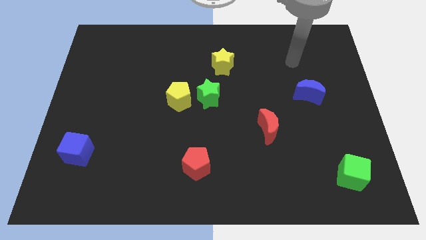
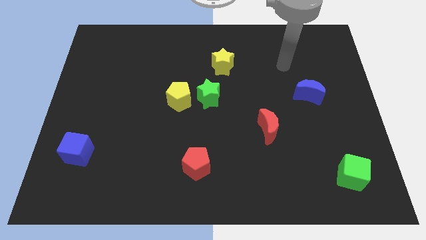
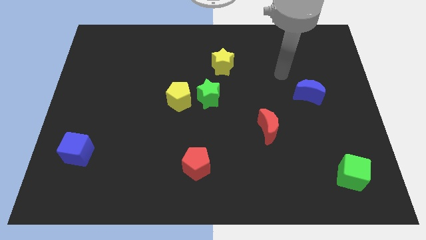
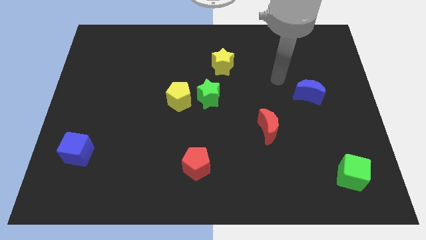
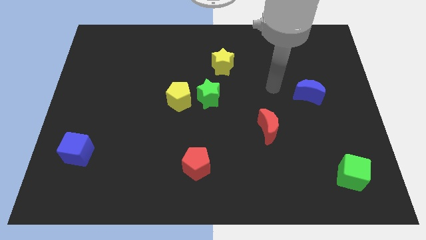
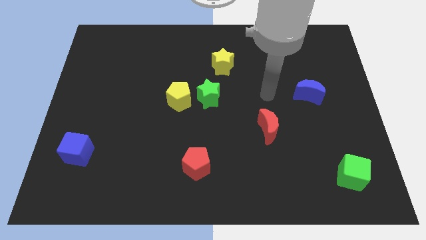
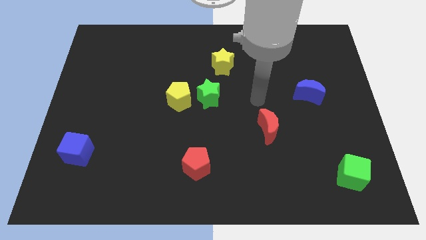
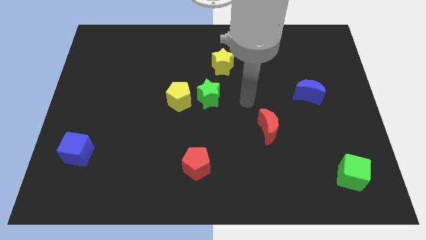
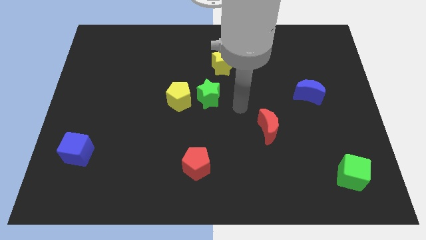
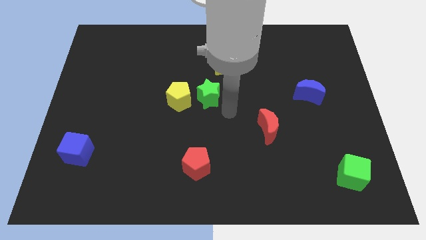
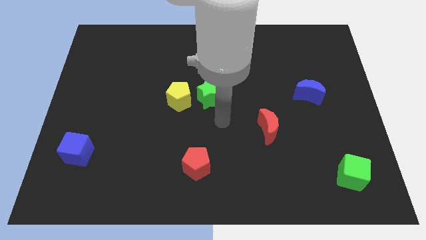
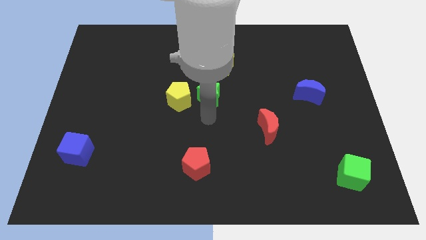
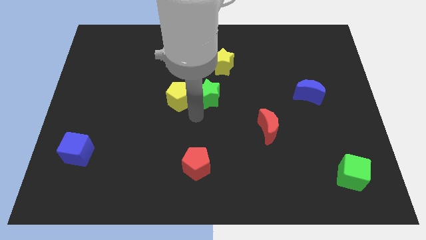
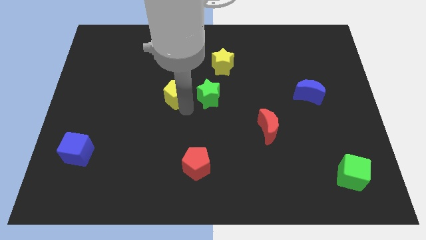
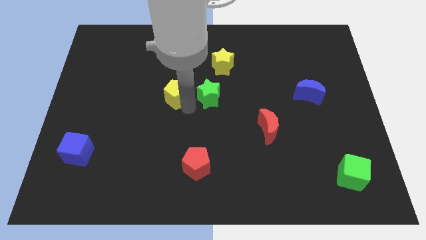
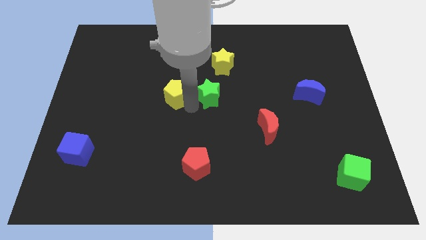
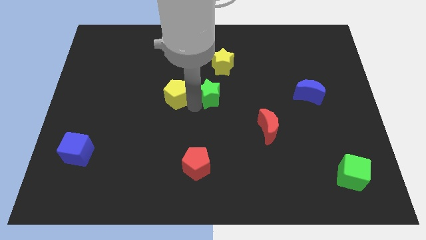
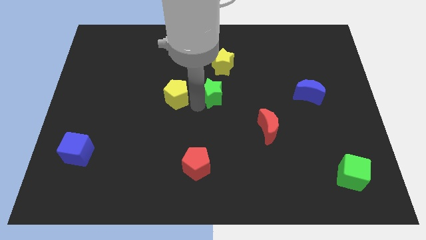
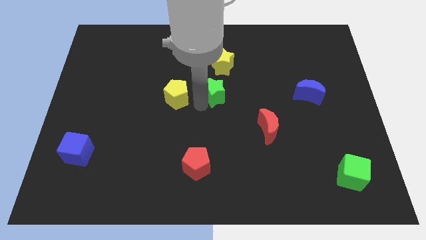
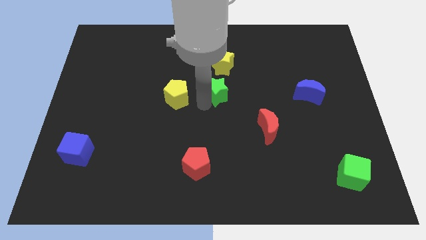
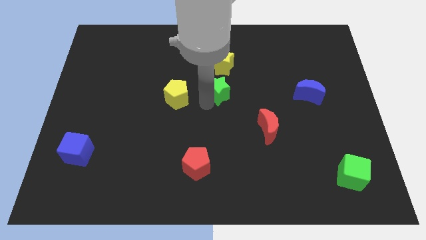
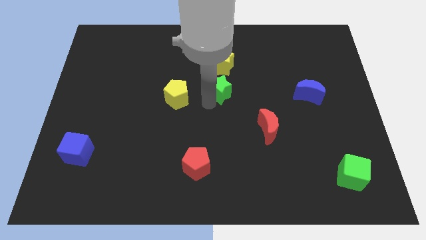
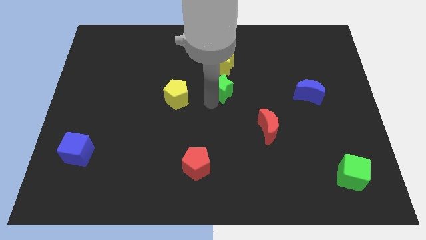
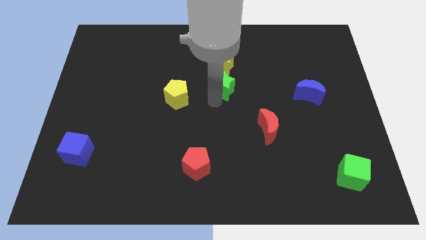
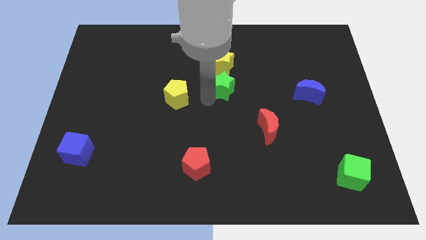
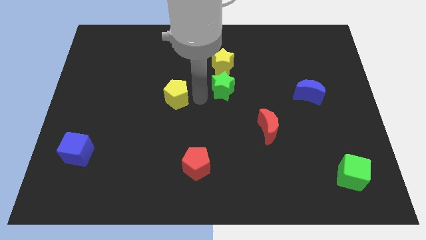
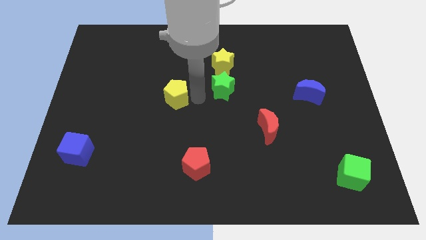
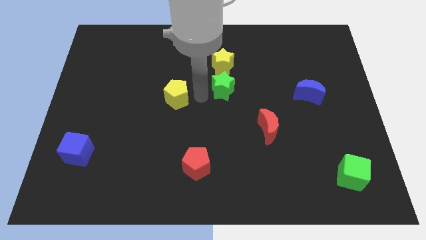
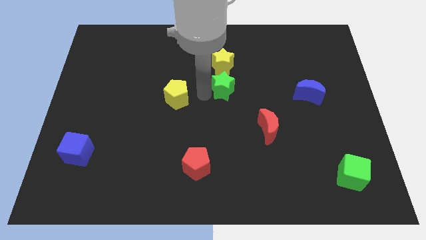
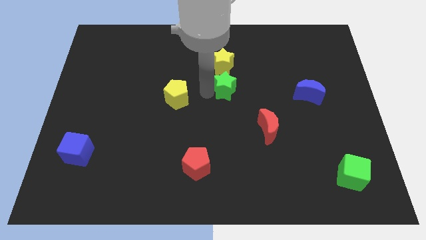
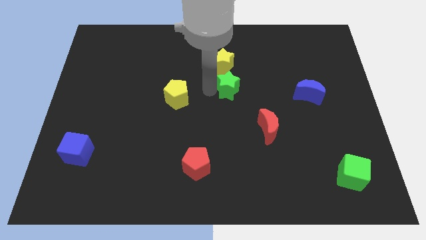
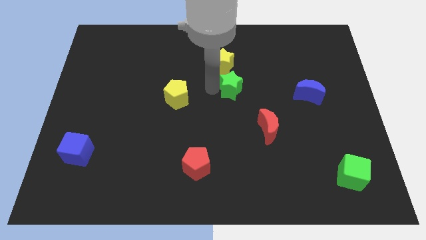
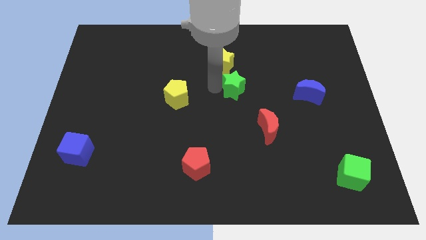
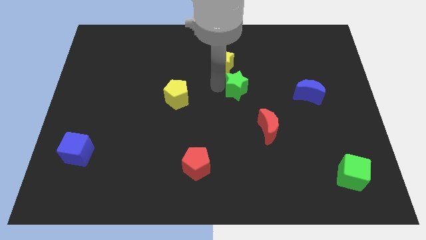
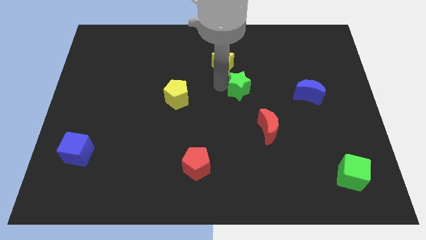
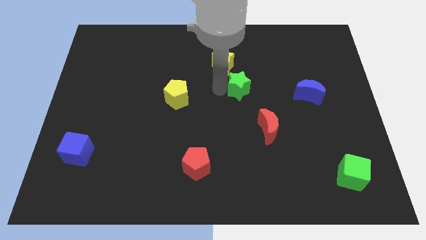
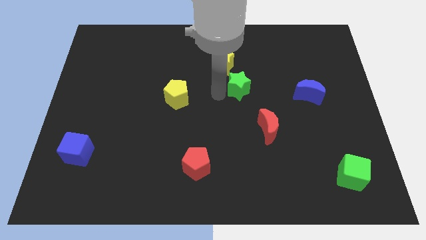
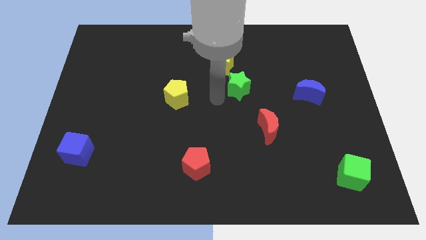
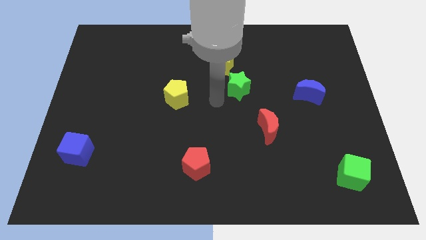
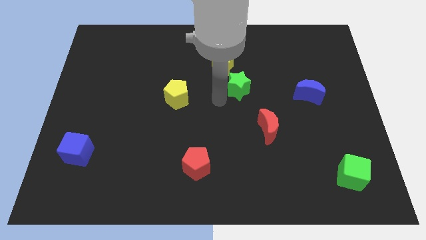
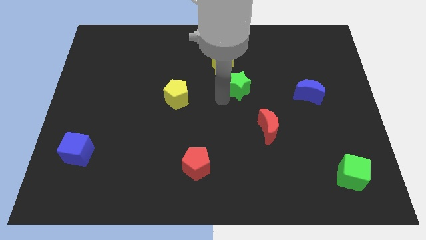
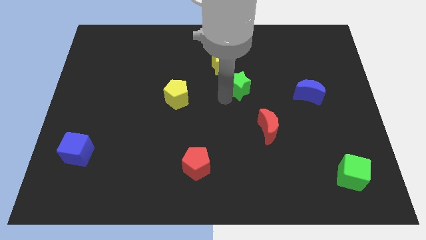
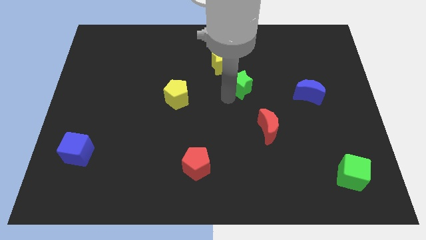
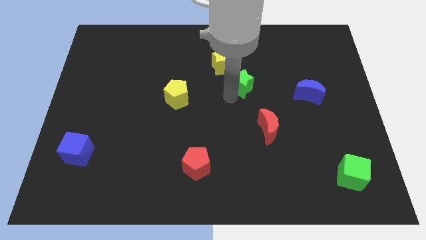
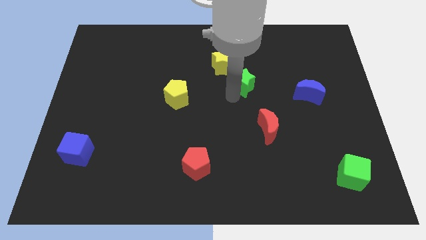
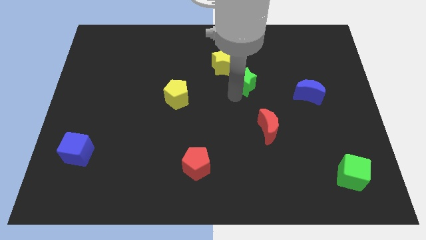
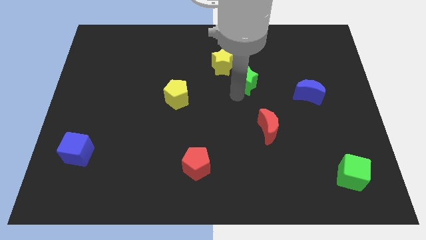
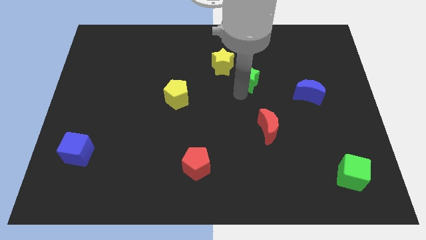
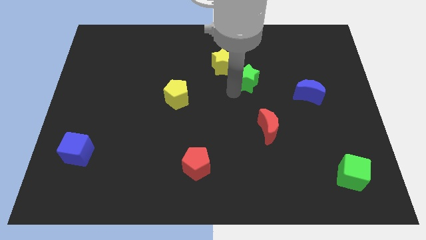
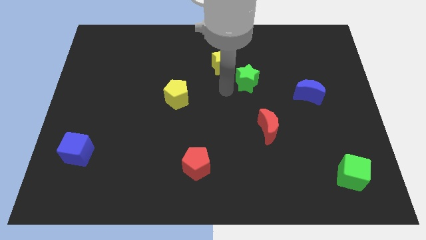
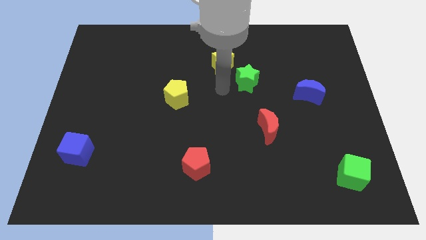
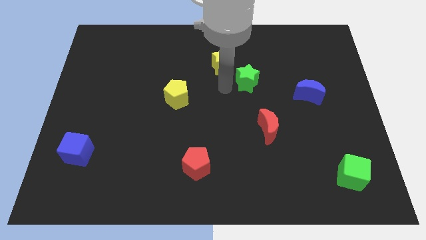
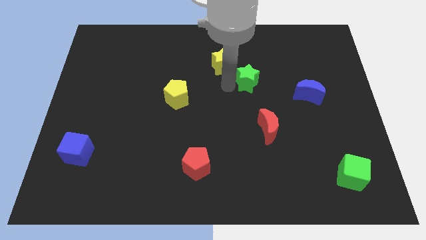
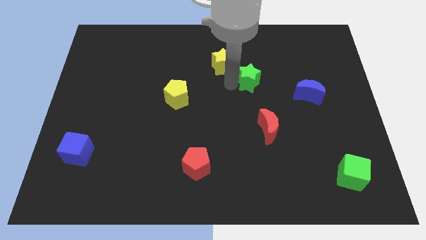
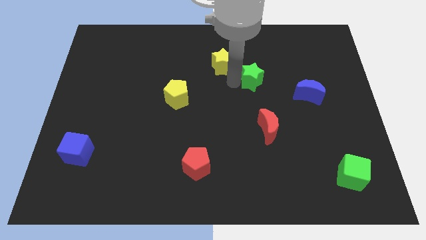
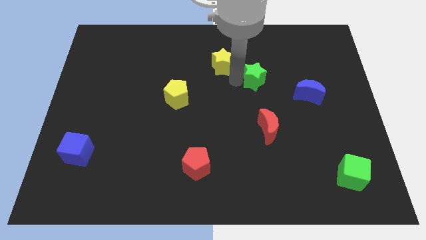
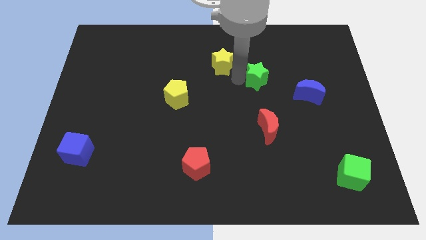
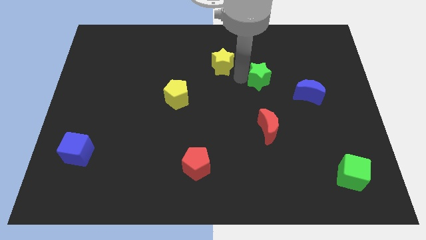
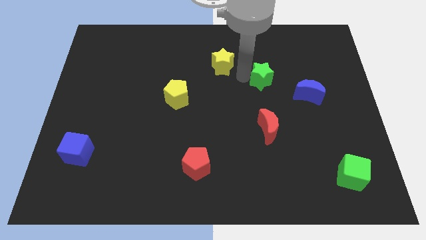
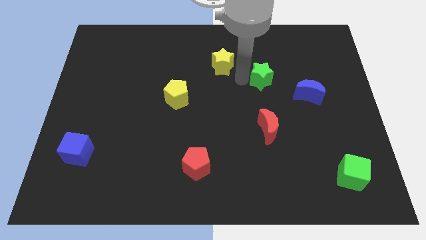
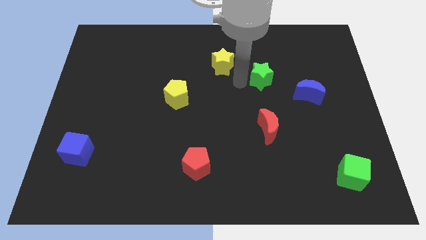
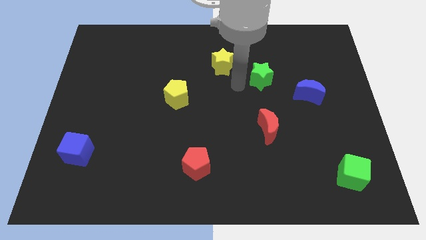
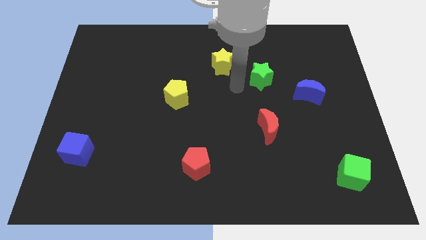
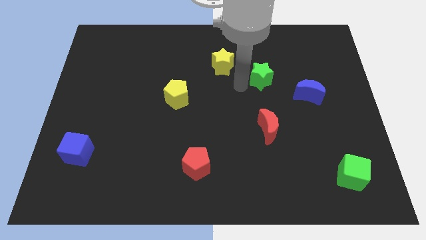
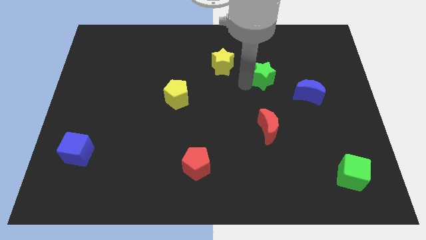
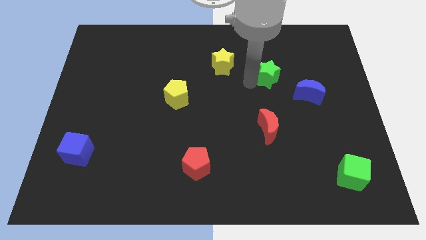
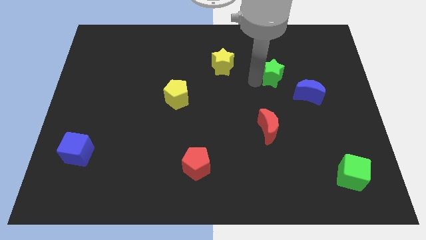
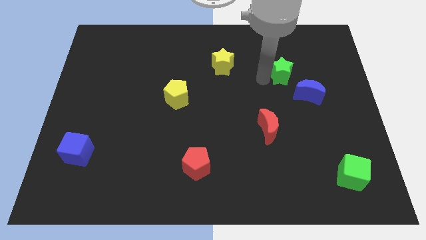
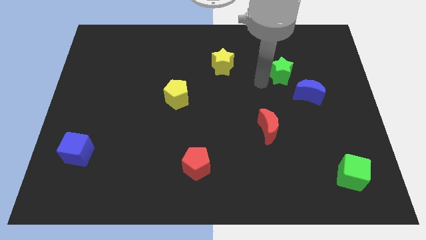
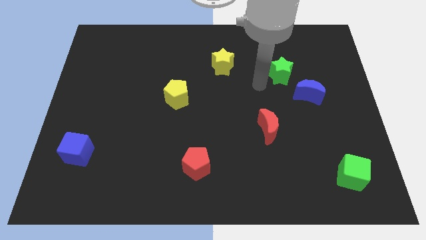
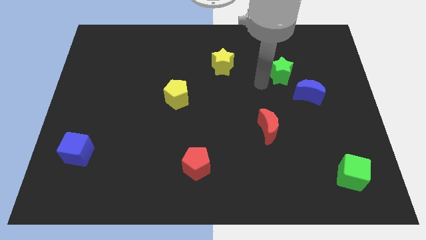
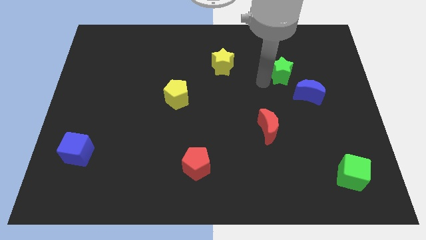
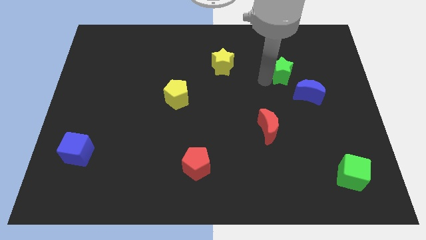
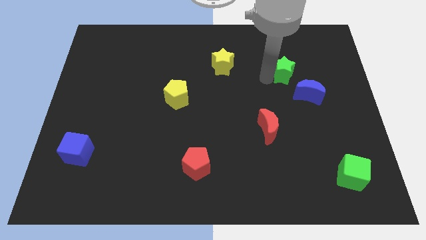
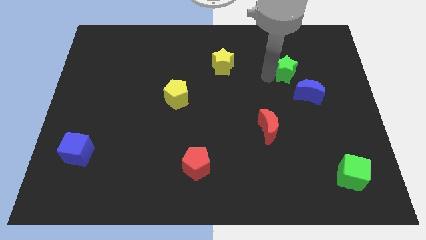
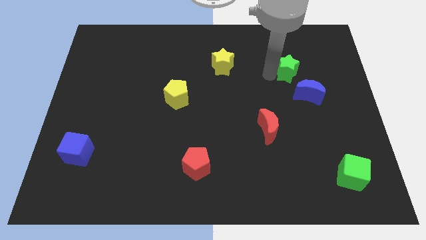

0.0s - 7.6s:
push the green star above the blue moon
